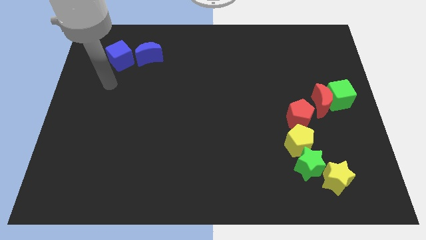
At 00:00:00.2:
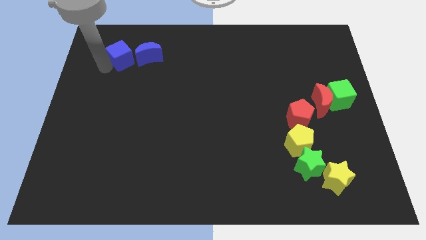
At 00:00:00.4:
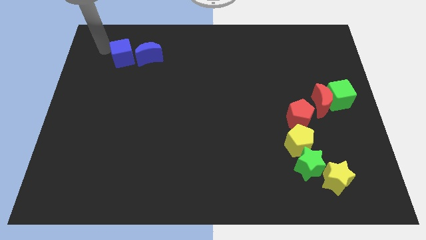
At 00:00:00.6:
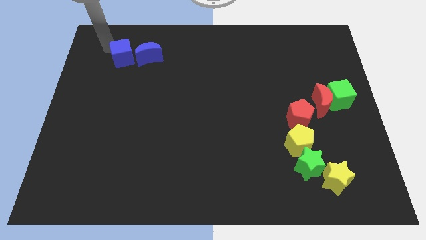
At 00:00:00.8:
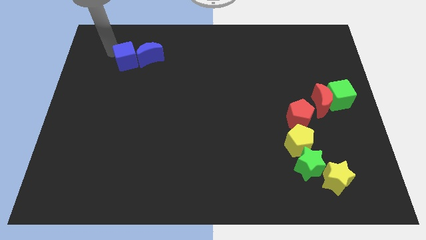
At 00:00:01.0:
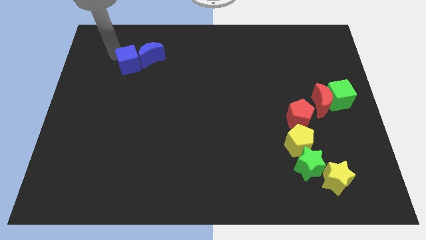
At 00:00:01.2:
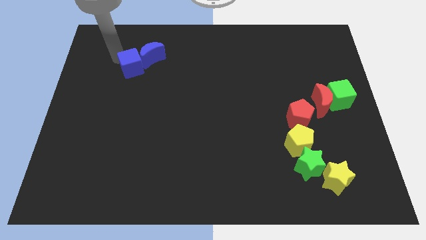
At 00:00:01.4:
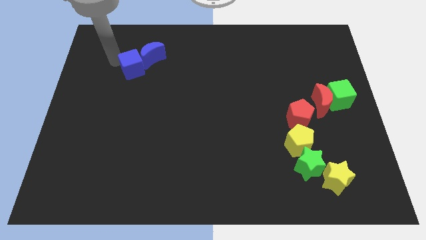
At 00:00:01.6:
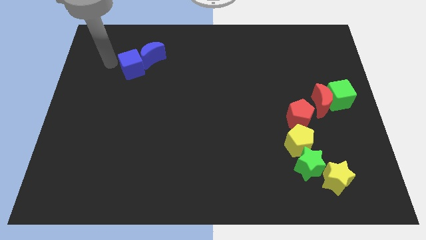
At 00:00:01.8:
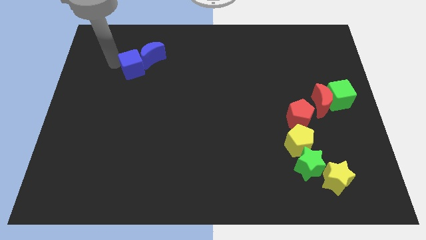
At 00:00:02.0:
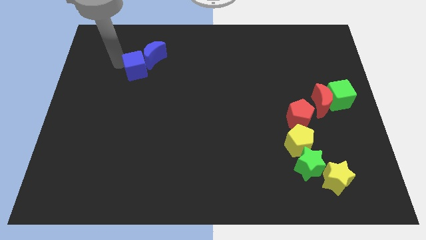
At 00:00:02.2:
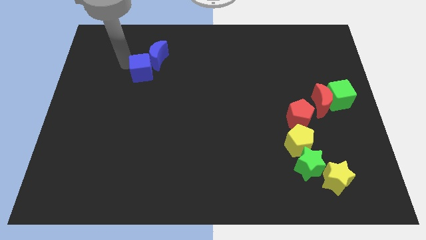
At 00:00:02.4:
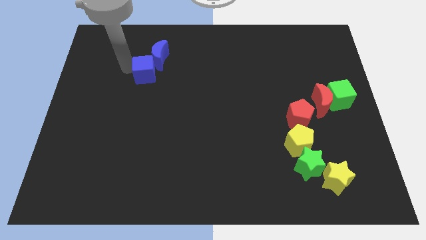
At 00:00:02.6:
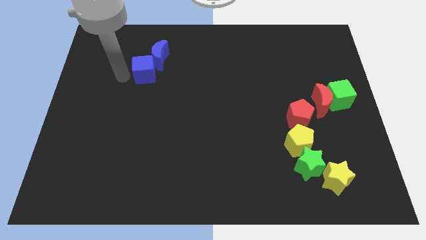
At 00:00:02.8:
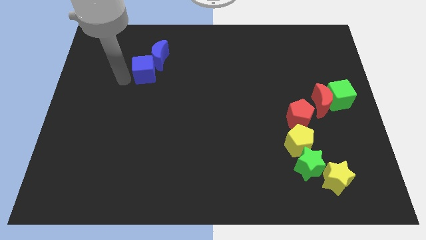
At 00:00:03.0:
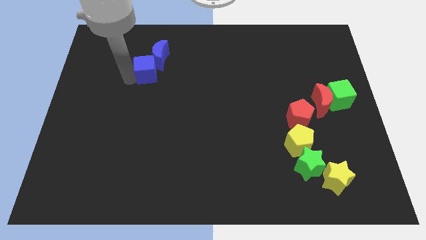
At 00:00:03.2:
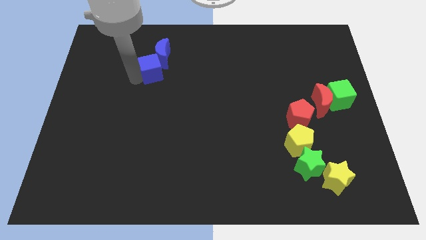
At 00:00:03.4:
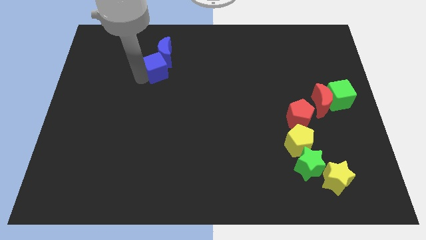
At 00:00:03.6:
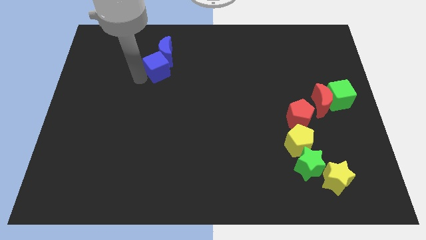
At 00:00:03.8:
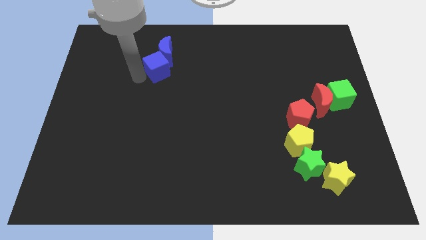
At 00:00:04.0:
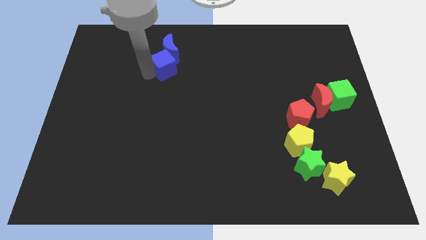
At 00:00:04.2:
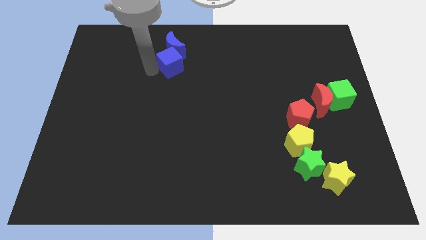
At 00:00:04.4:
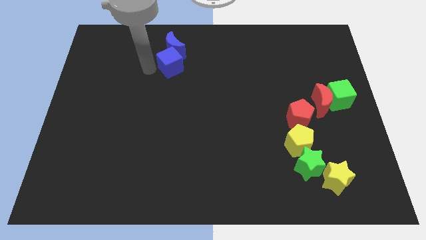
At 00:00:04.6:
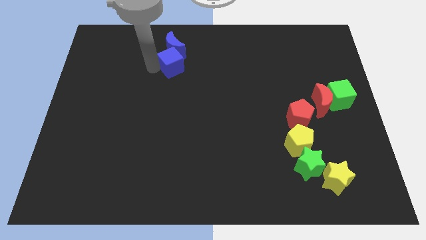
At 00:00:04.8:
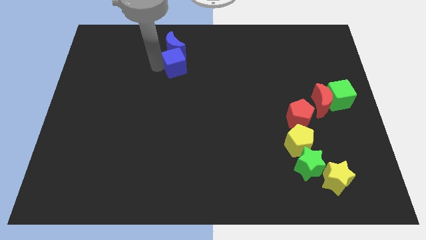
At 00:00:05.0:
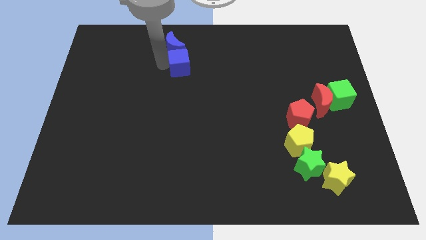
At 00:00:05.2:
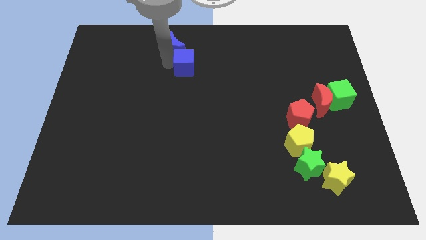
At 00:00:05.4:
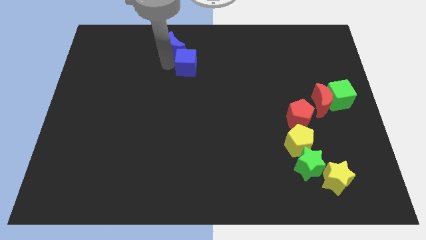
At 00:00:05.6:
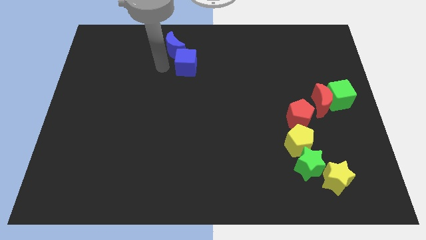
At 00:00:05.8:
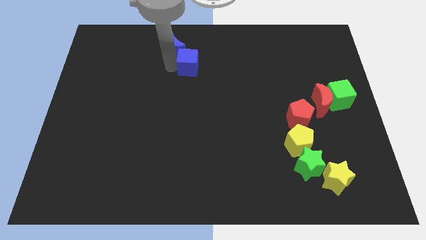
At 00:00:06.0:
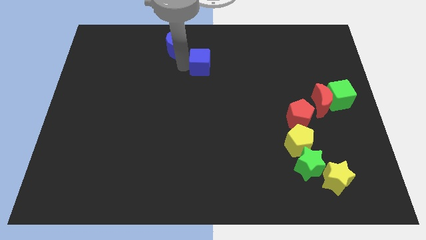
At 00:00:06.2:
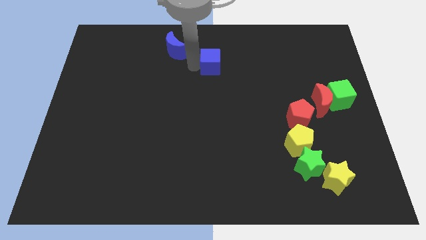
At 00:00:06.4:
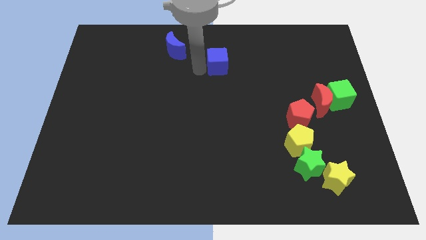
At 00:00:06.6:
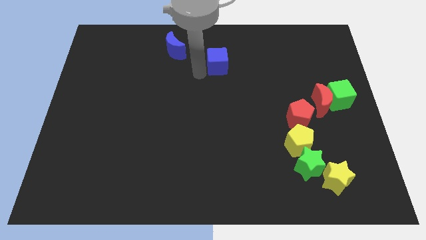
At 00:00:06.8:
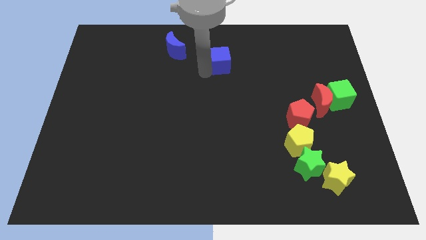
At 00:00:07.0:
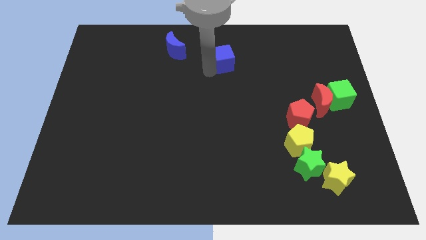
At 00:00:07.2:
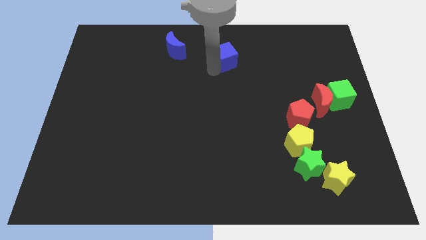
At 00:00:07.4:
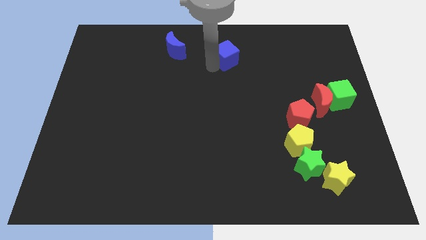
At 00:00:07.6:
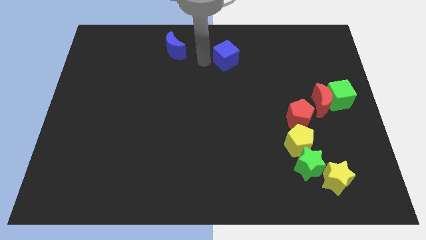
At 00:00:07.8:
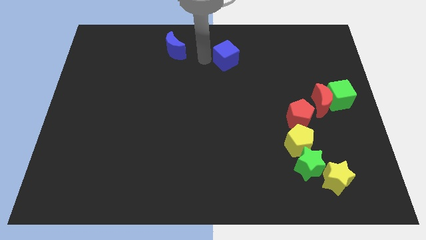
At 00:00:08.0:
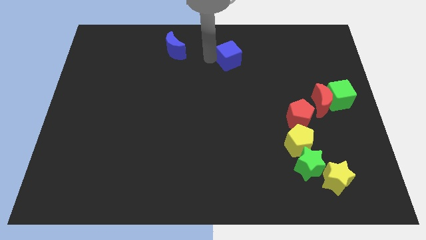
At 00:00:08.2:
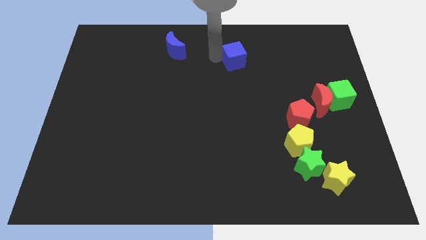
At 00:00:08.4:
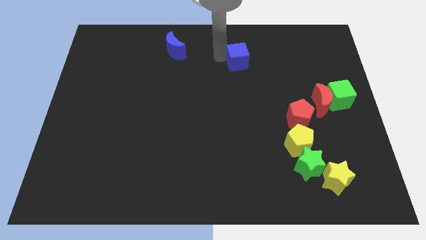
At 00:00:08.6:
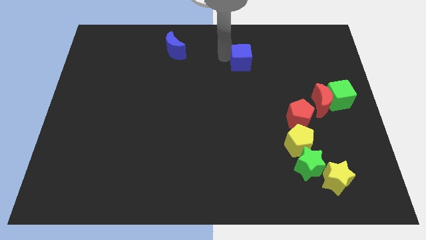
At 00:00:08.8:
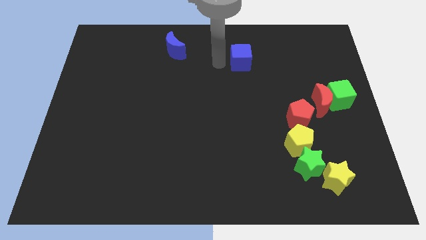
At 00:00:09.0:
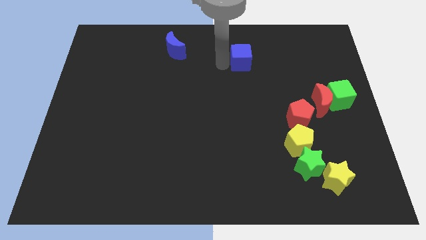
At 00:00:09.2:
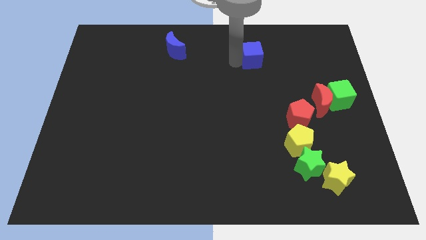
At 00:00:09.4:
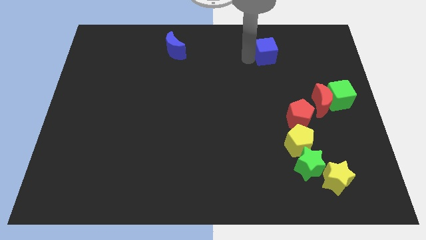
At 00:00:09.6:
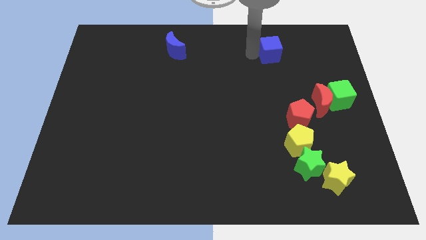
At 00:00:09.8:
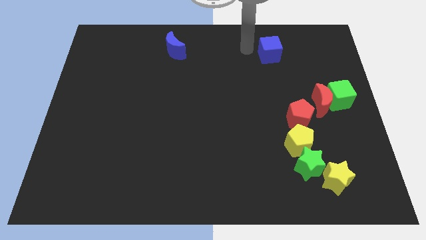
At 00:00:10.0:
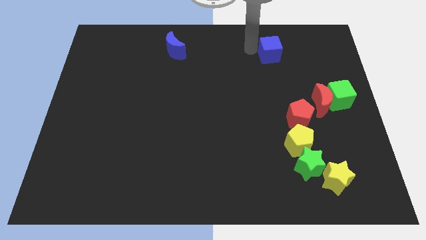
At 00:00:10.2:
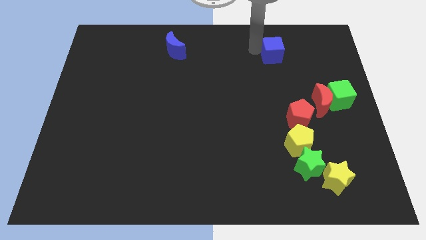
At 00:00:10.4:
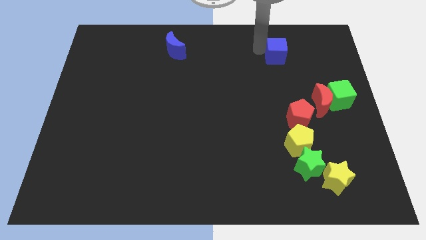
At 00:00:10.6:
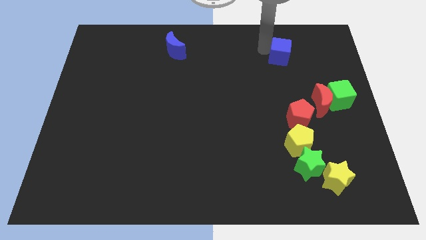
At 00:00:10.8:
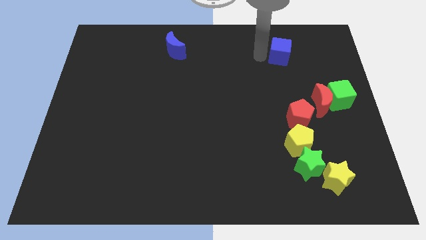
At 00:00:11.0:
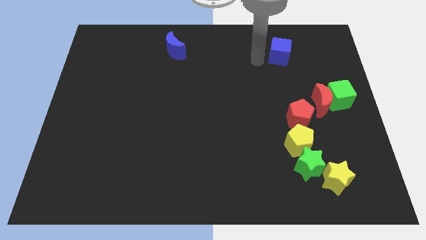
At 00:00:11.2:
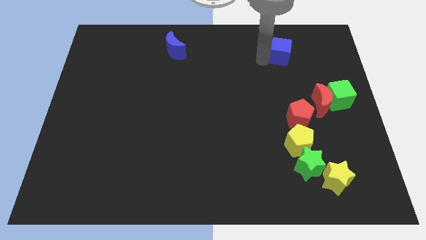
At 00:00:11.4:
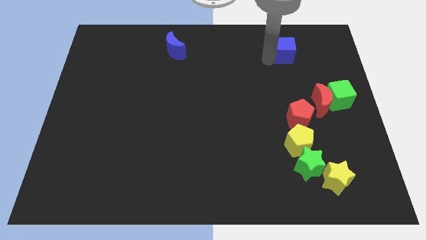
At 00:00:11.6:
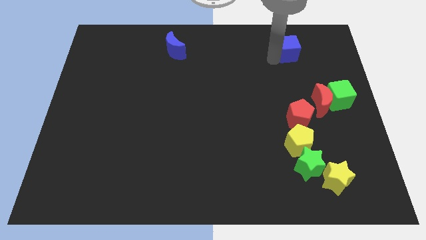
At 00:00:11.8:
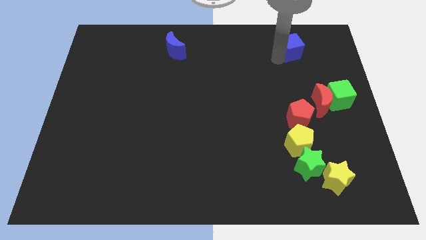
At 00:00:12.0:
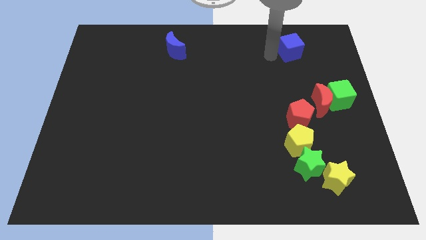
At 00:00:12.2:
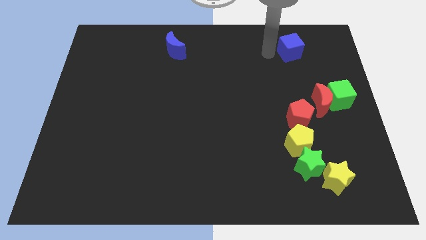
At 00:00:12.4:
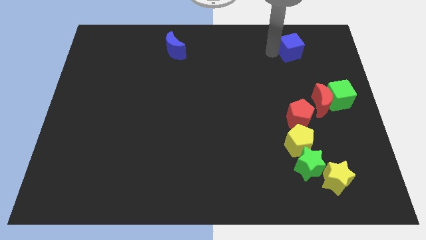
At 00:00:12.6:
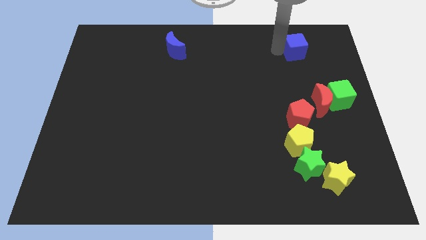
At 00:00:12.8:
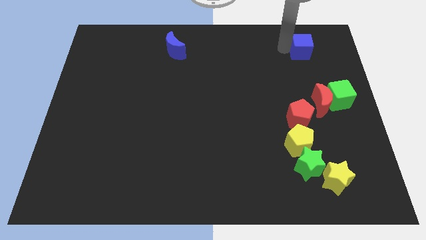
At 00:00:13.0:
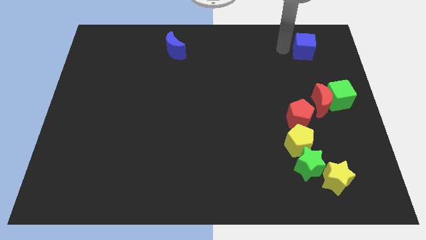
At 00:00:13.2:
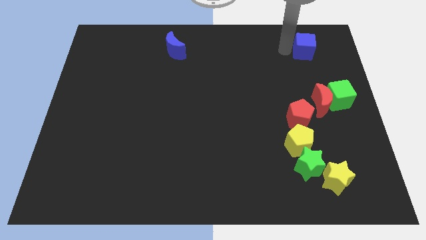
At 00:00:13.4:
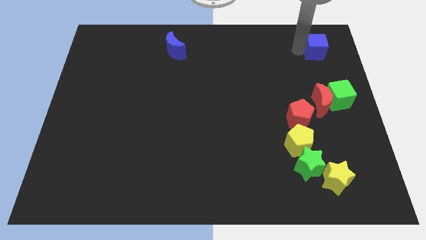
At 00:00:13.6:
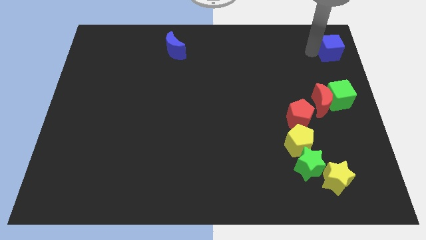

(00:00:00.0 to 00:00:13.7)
slide the blue cube to the top right corner
